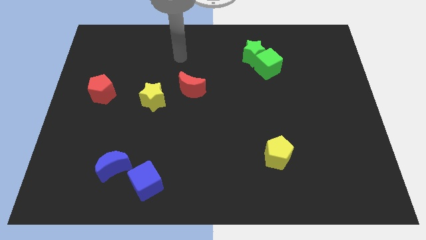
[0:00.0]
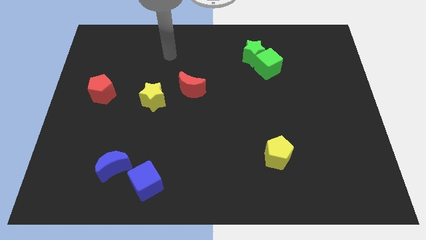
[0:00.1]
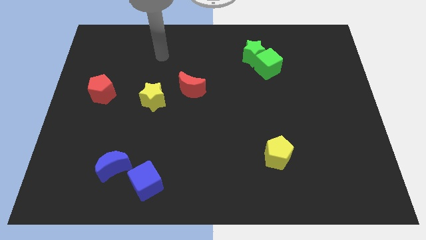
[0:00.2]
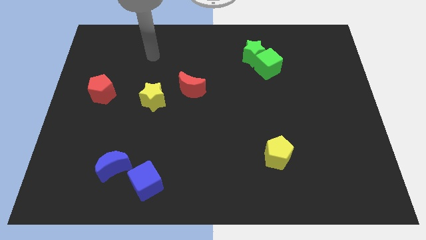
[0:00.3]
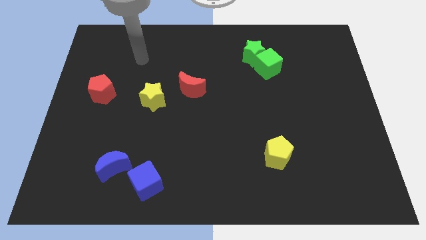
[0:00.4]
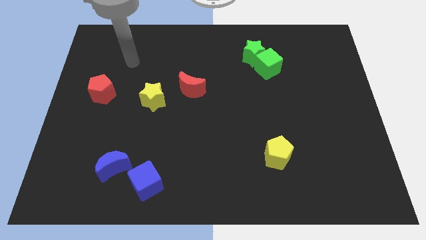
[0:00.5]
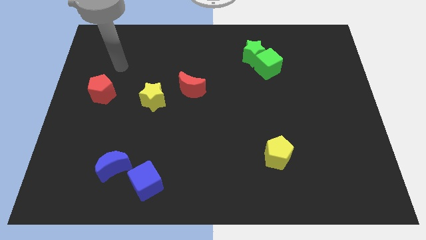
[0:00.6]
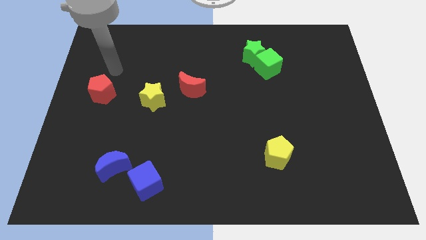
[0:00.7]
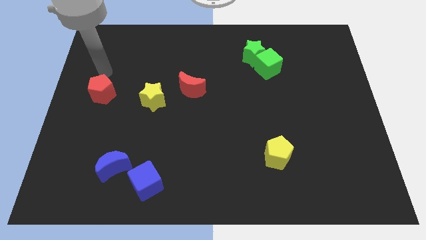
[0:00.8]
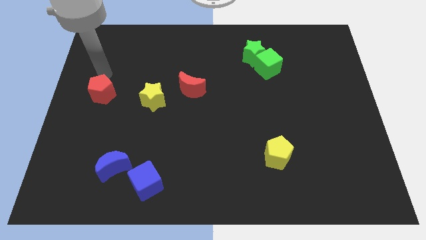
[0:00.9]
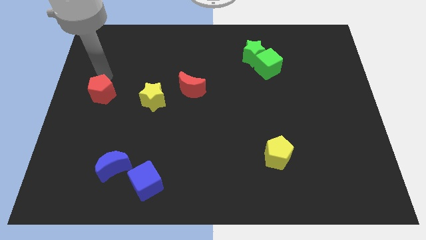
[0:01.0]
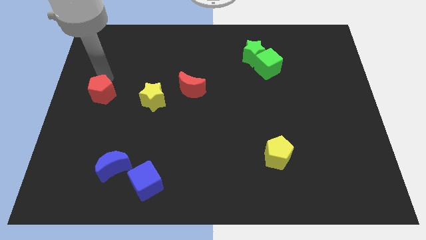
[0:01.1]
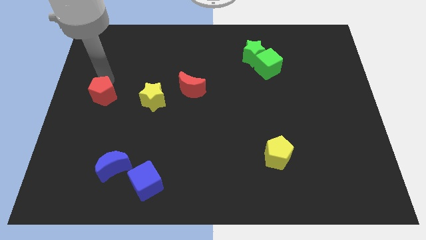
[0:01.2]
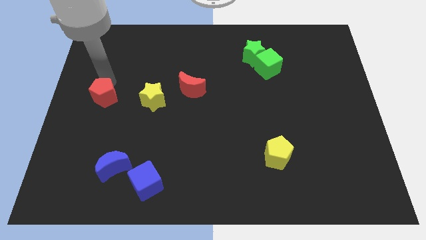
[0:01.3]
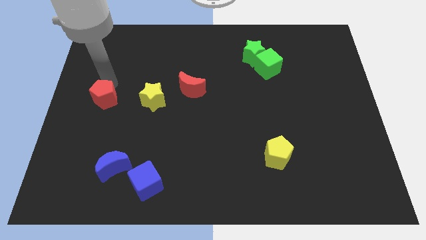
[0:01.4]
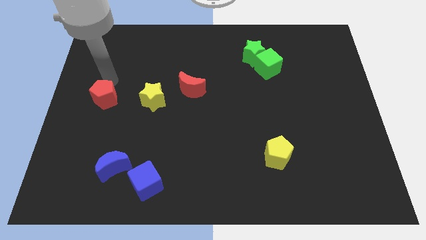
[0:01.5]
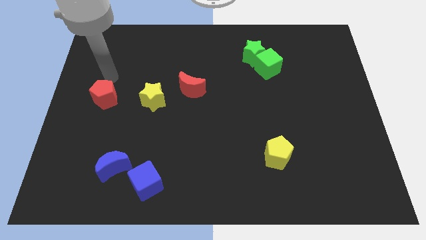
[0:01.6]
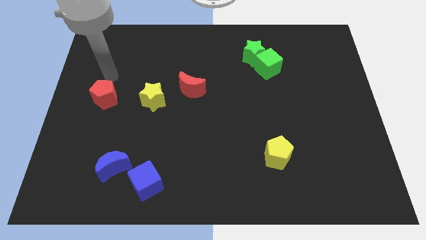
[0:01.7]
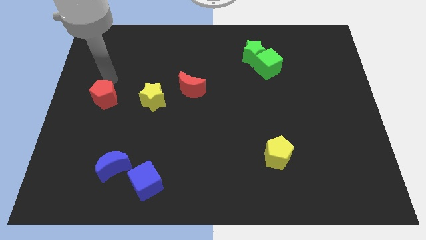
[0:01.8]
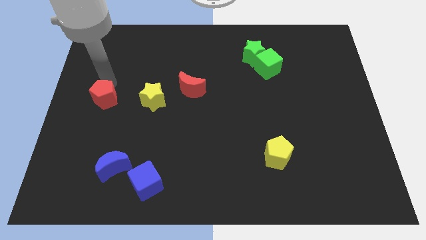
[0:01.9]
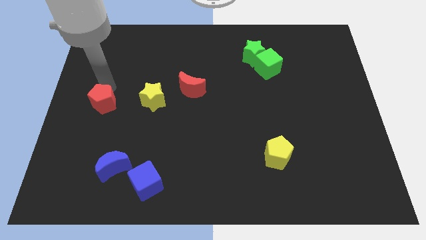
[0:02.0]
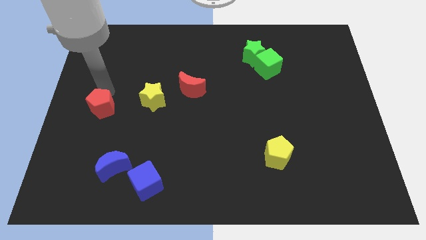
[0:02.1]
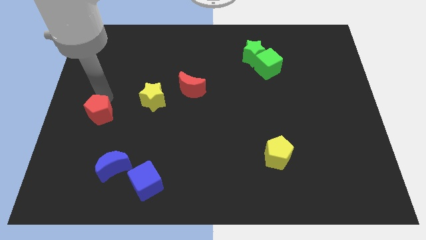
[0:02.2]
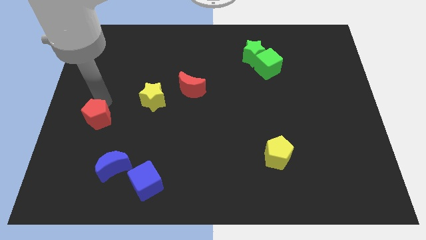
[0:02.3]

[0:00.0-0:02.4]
slightly push the red pentagon downwards

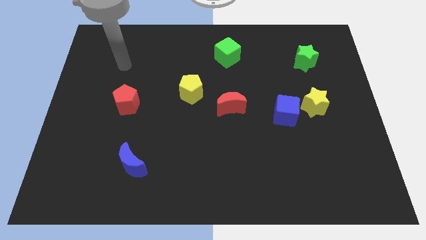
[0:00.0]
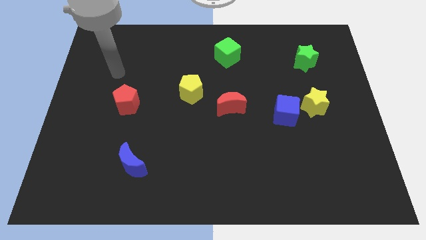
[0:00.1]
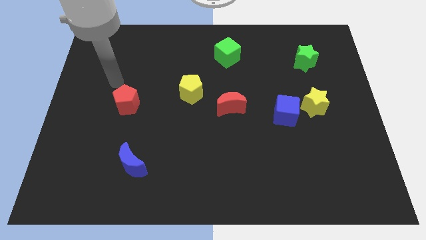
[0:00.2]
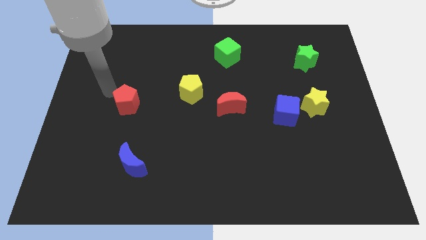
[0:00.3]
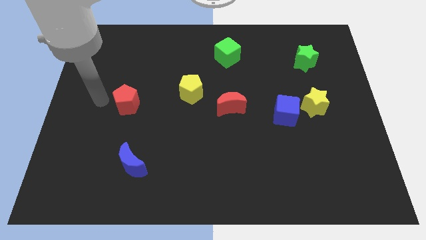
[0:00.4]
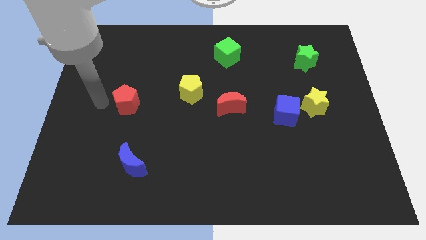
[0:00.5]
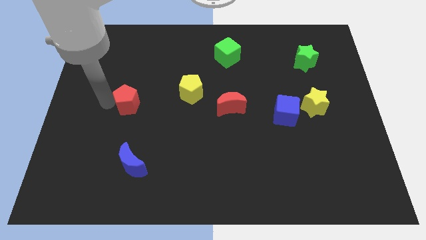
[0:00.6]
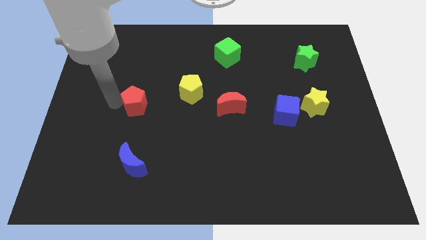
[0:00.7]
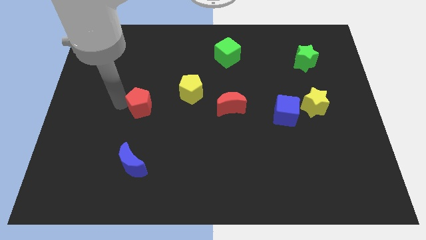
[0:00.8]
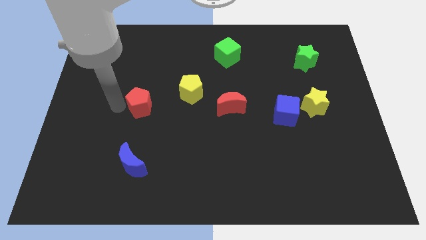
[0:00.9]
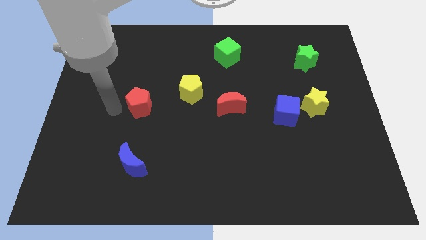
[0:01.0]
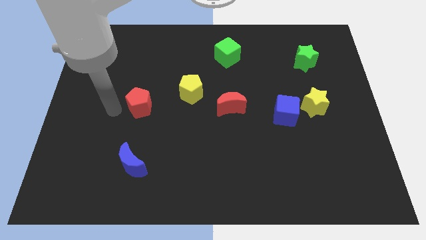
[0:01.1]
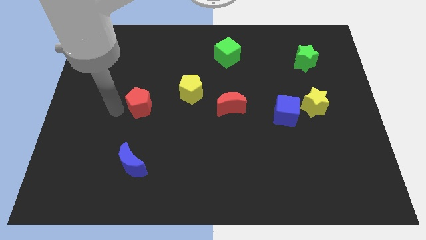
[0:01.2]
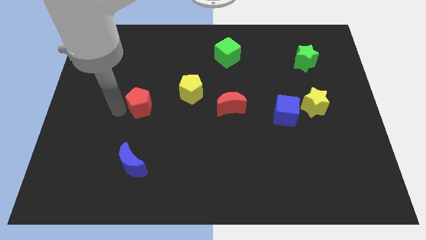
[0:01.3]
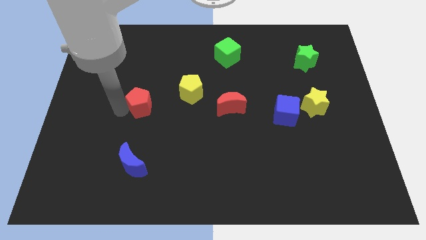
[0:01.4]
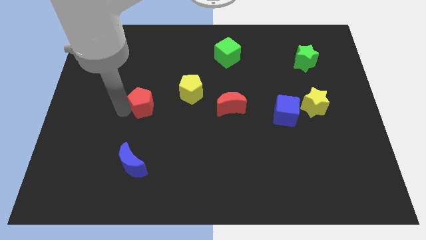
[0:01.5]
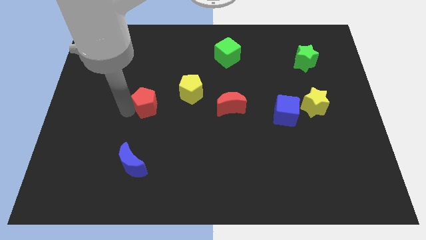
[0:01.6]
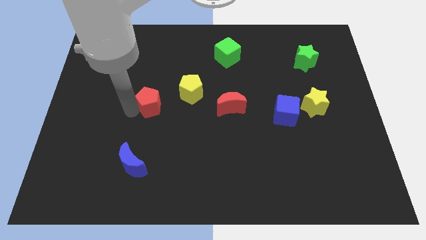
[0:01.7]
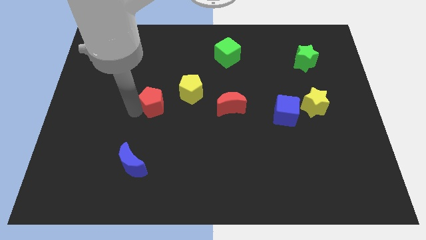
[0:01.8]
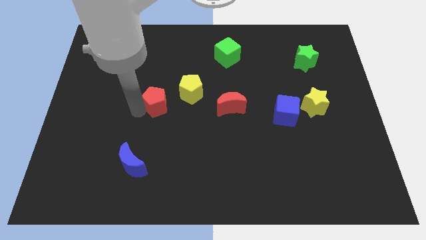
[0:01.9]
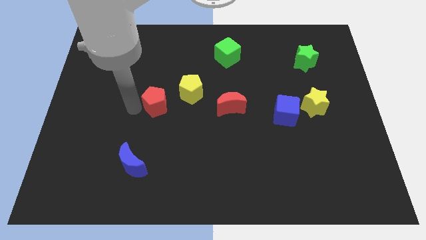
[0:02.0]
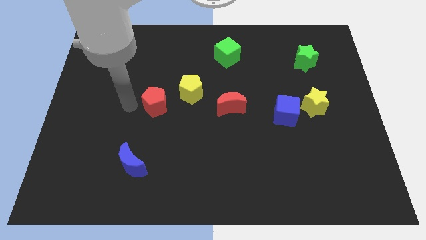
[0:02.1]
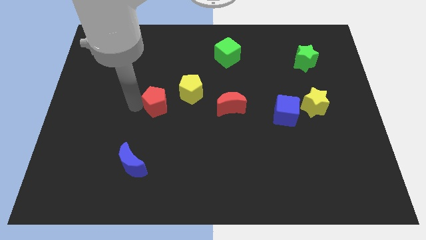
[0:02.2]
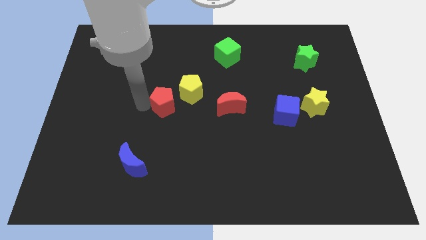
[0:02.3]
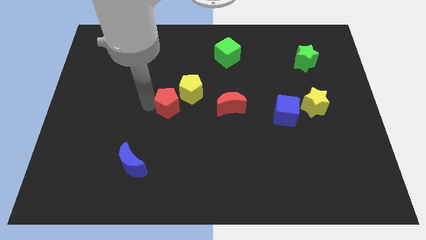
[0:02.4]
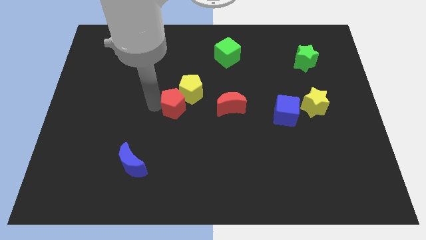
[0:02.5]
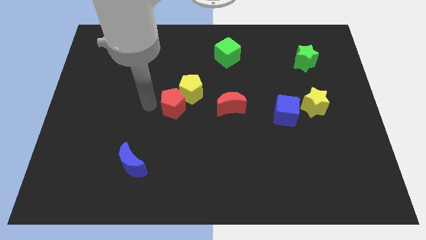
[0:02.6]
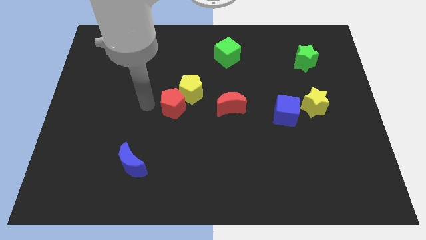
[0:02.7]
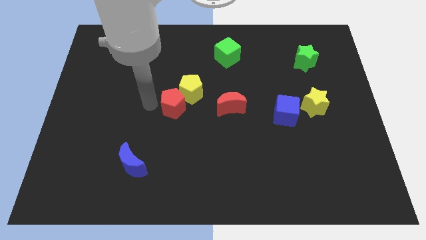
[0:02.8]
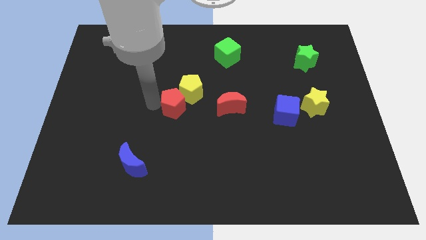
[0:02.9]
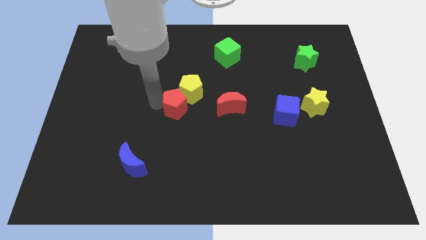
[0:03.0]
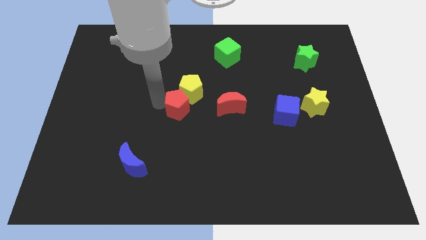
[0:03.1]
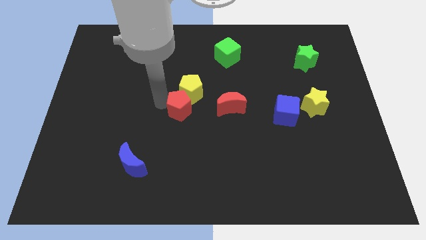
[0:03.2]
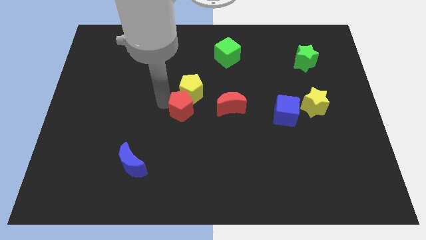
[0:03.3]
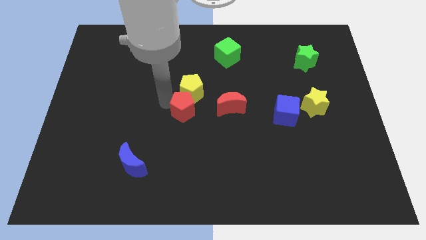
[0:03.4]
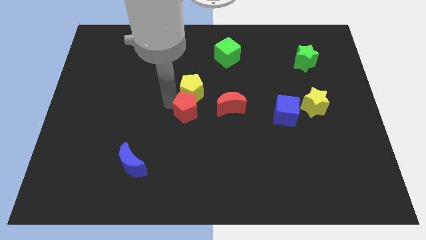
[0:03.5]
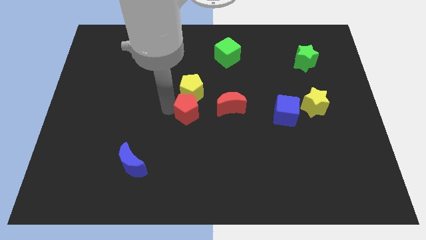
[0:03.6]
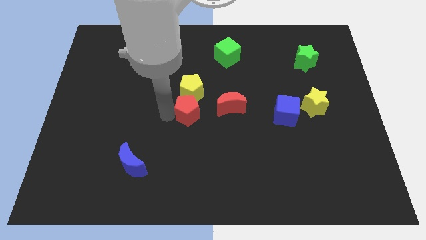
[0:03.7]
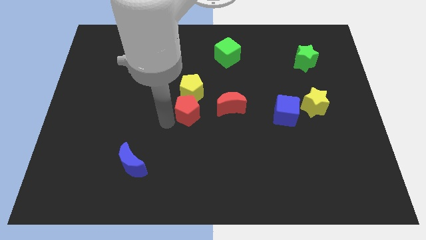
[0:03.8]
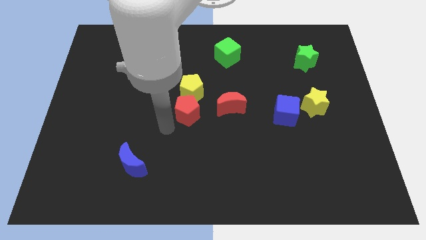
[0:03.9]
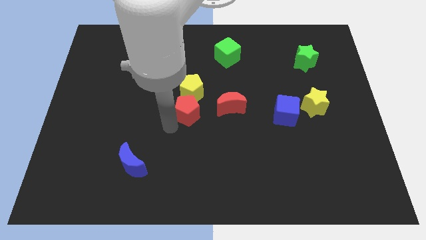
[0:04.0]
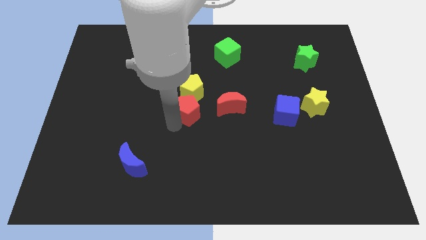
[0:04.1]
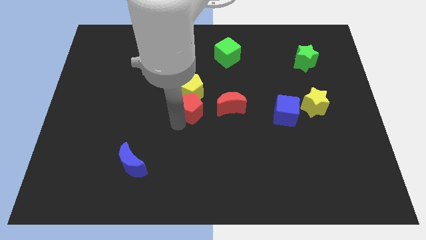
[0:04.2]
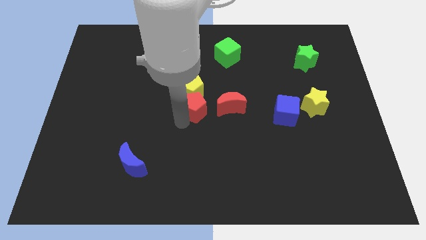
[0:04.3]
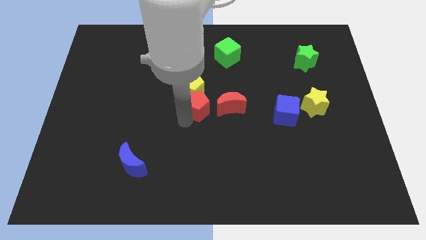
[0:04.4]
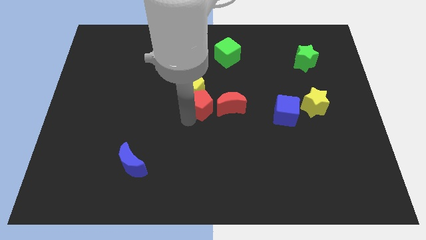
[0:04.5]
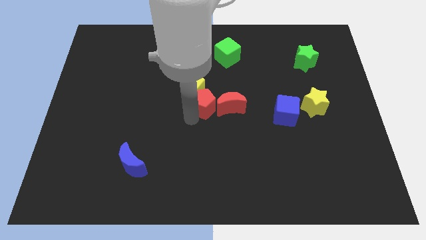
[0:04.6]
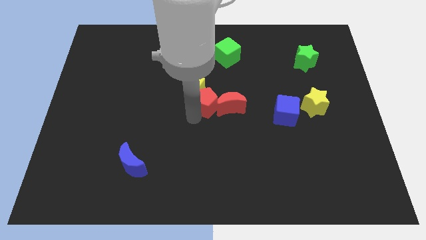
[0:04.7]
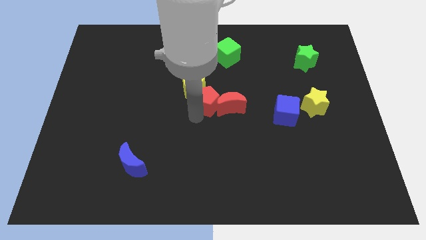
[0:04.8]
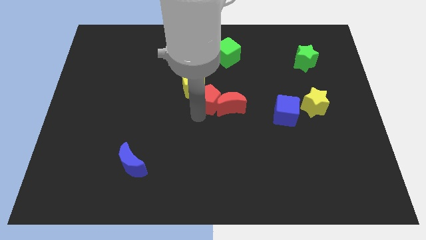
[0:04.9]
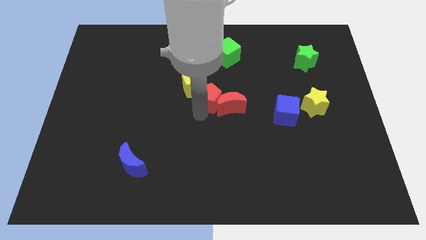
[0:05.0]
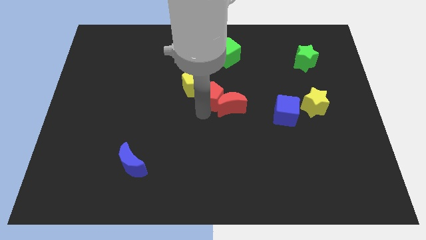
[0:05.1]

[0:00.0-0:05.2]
slide the red pentagon to the right

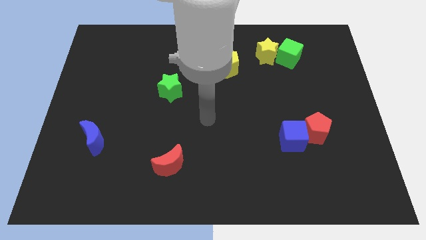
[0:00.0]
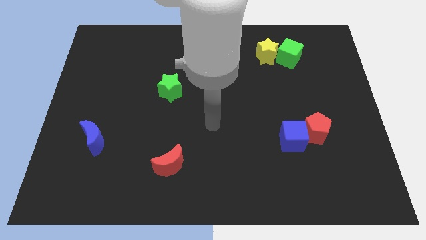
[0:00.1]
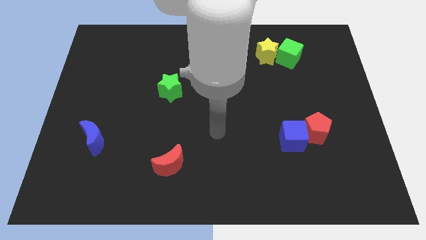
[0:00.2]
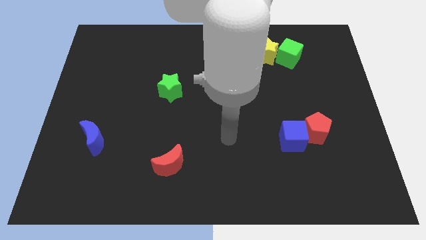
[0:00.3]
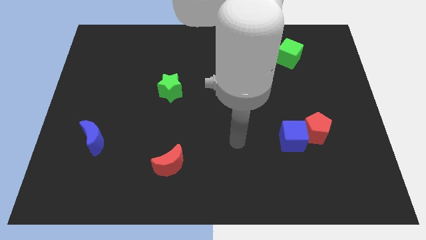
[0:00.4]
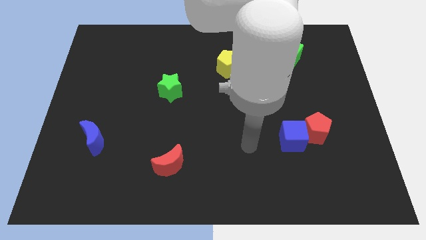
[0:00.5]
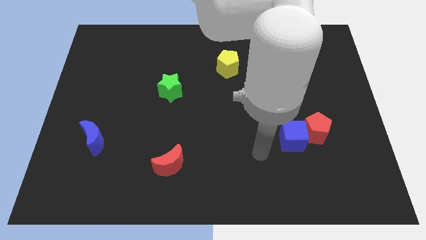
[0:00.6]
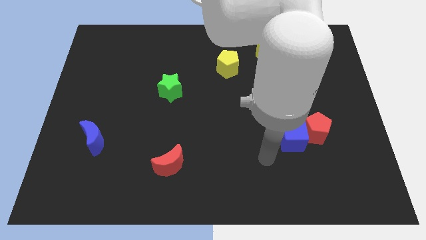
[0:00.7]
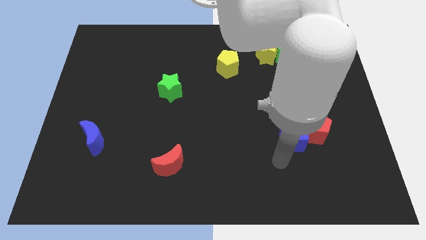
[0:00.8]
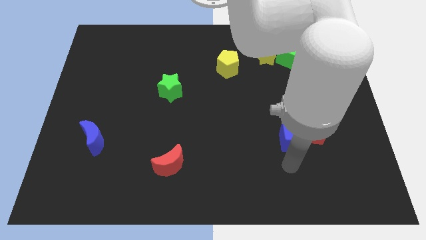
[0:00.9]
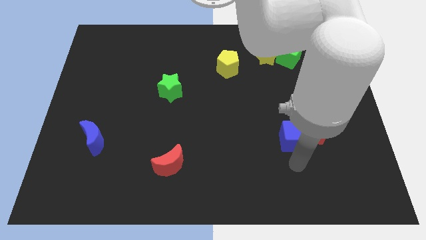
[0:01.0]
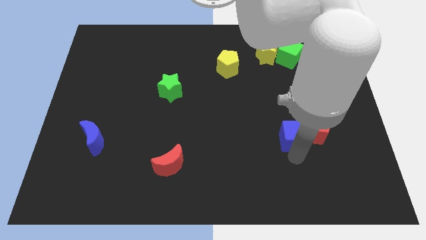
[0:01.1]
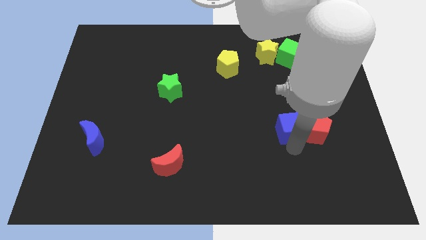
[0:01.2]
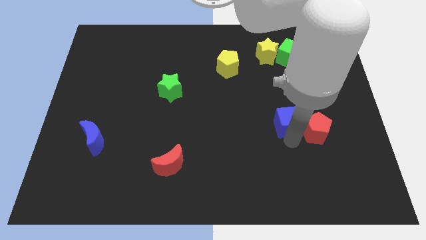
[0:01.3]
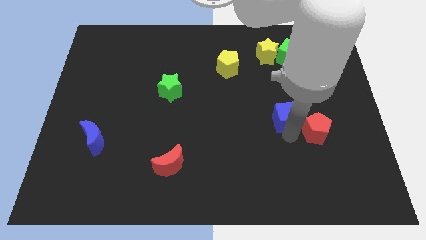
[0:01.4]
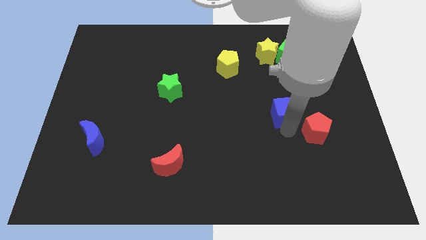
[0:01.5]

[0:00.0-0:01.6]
push the blue cube a little bit upwards
